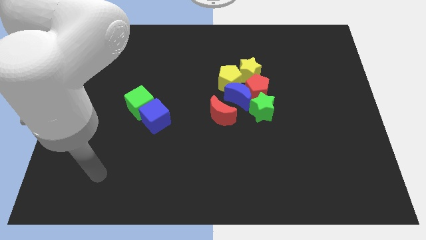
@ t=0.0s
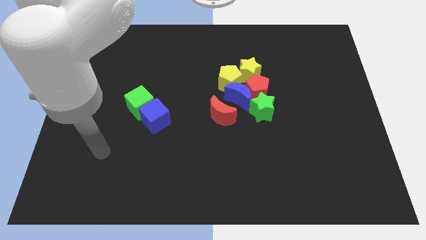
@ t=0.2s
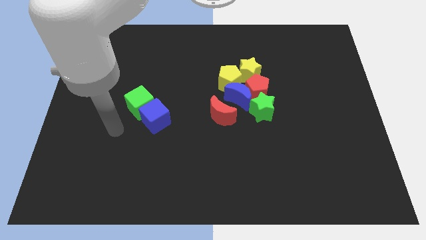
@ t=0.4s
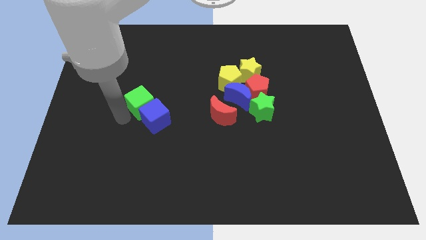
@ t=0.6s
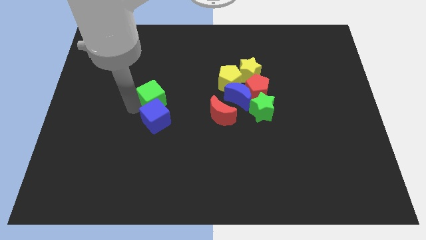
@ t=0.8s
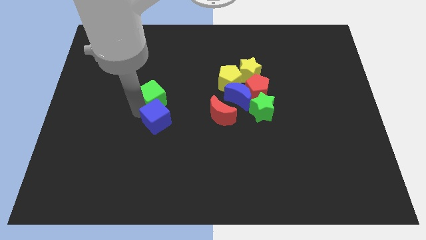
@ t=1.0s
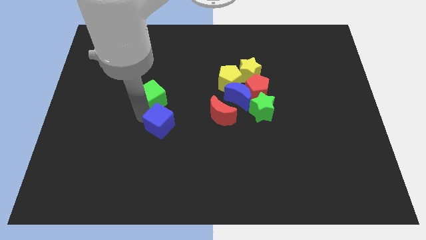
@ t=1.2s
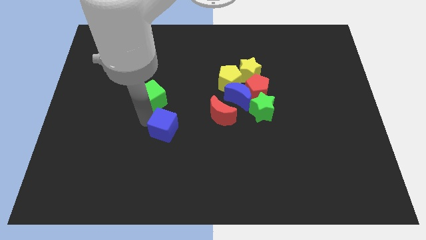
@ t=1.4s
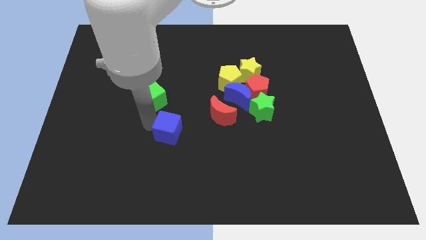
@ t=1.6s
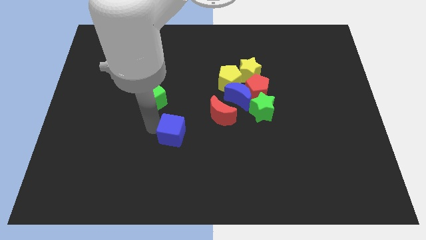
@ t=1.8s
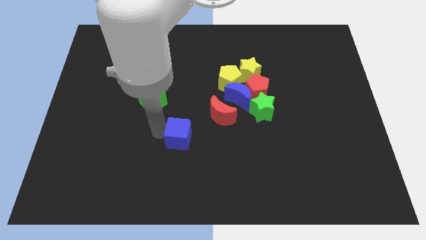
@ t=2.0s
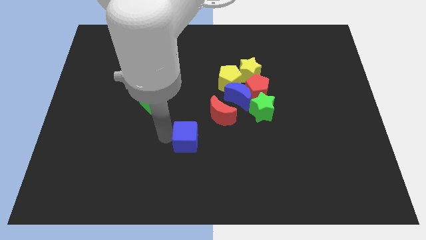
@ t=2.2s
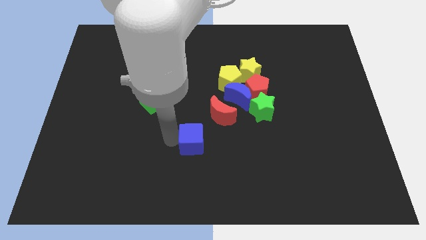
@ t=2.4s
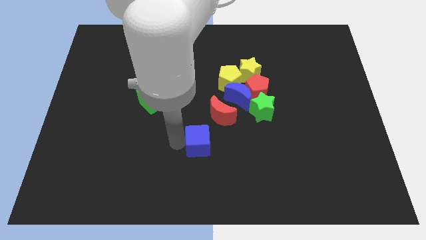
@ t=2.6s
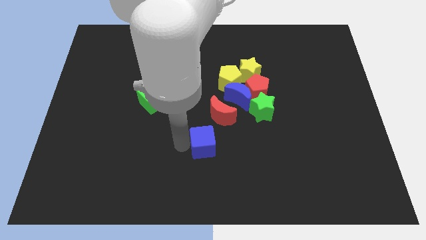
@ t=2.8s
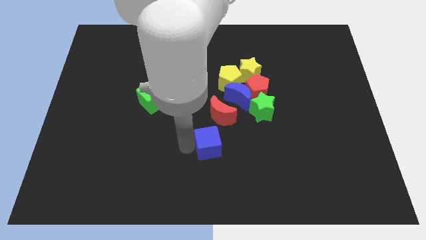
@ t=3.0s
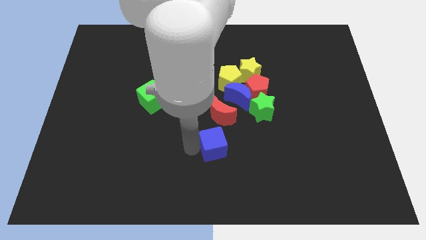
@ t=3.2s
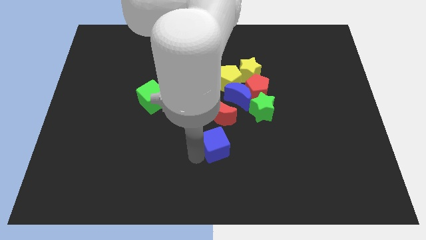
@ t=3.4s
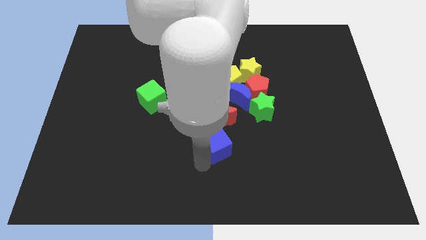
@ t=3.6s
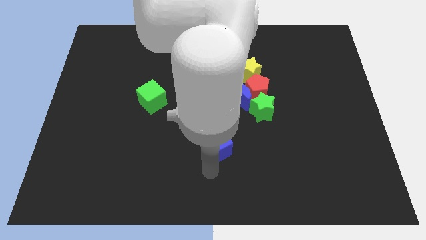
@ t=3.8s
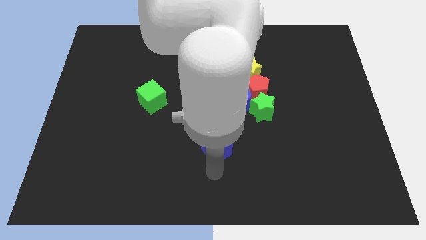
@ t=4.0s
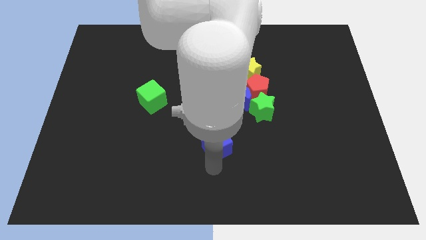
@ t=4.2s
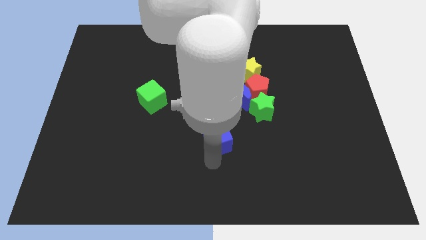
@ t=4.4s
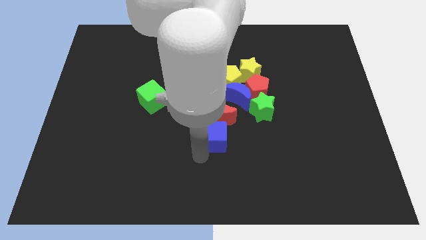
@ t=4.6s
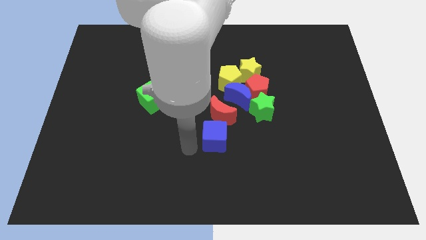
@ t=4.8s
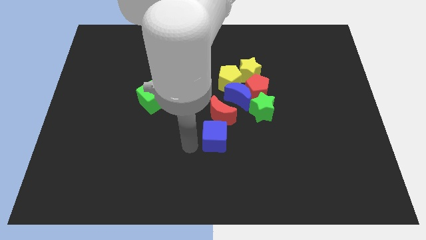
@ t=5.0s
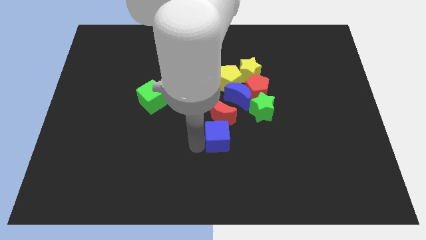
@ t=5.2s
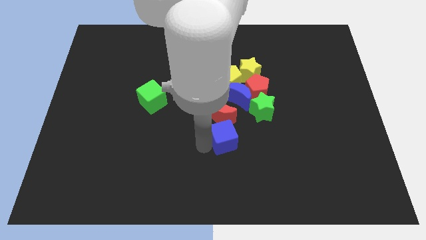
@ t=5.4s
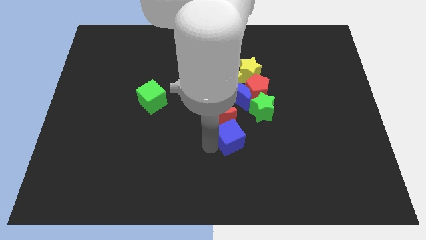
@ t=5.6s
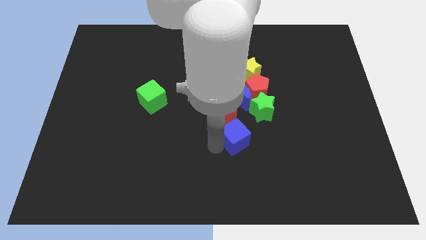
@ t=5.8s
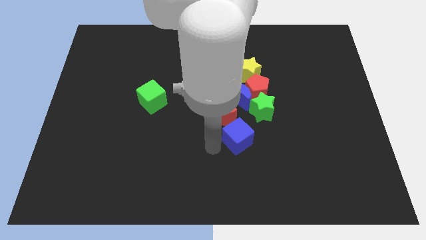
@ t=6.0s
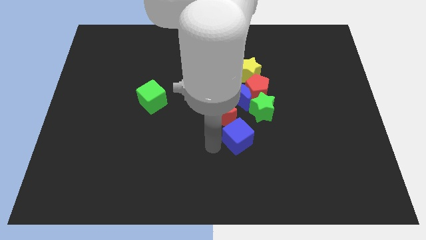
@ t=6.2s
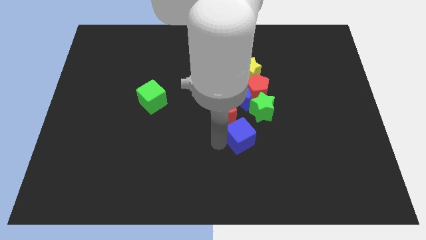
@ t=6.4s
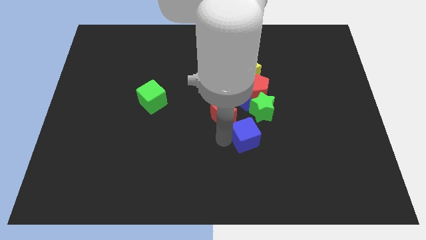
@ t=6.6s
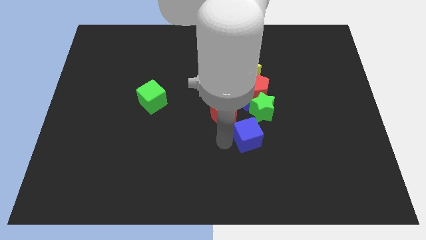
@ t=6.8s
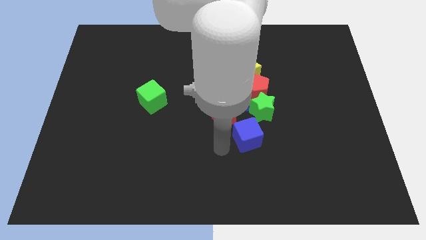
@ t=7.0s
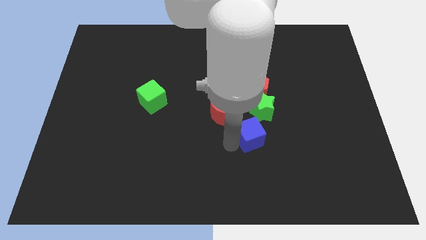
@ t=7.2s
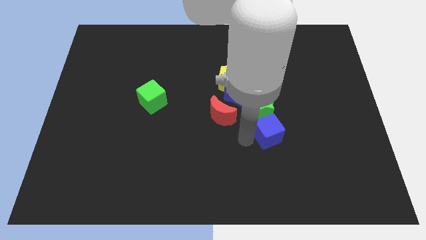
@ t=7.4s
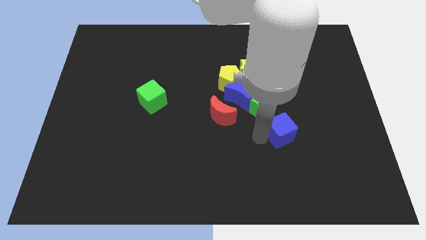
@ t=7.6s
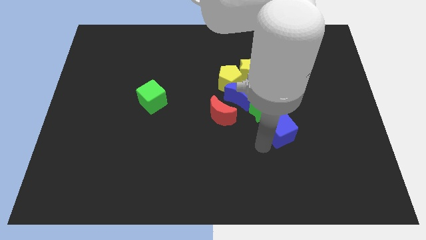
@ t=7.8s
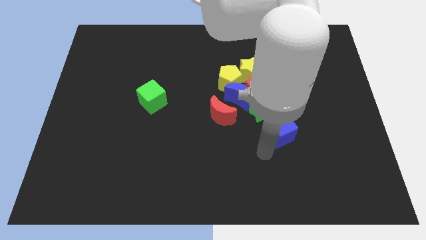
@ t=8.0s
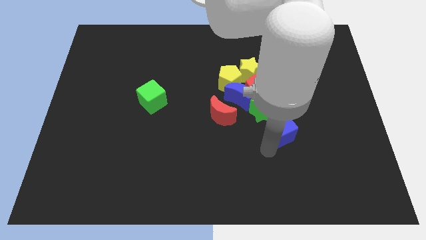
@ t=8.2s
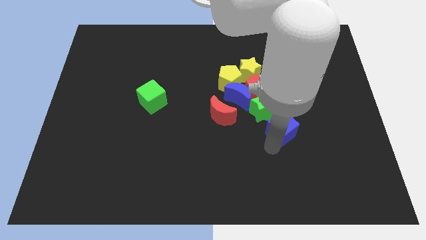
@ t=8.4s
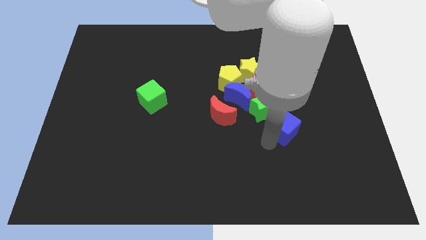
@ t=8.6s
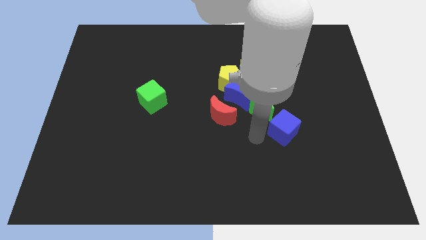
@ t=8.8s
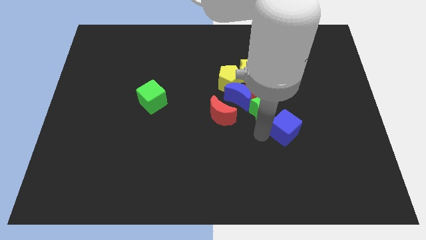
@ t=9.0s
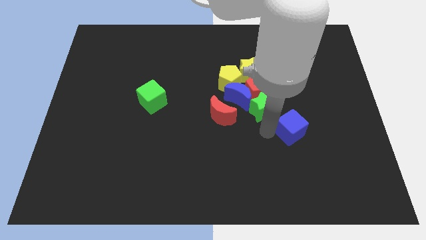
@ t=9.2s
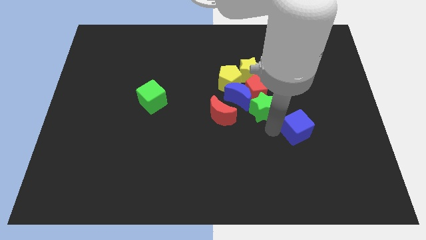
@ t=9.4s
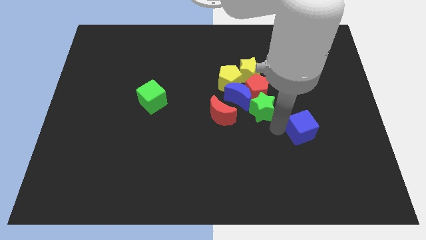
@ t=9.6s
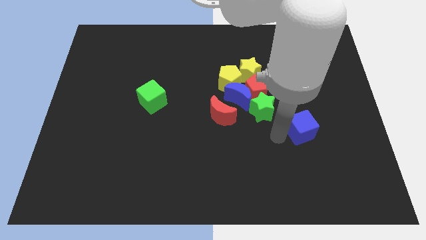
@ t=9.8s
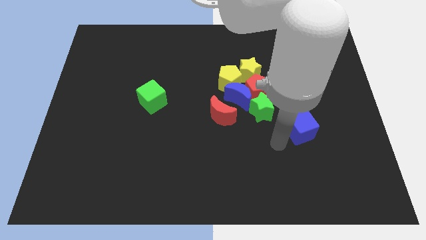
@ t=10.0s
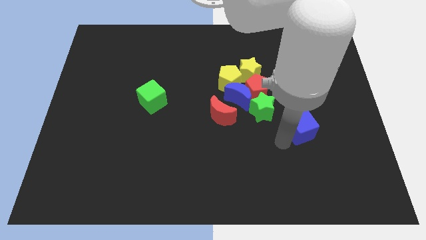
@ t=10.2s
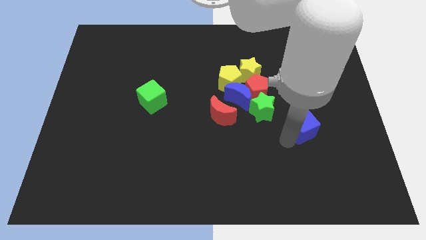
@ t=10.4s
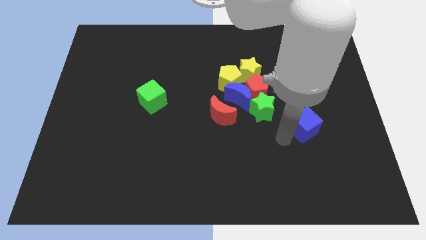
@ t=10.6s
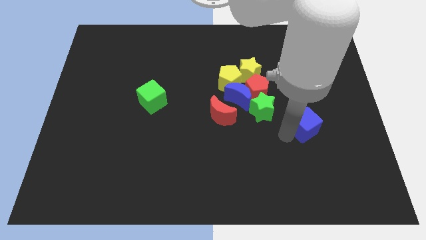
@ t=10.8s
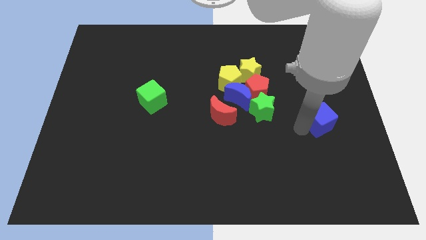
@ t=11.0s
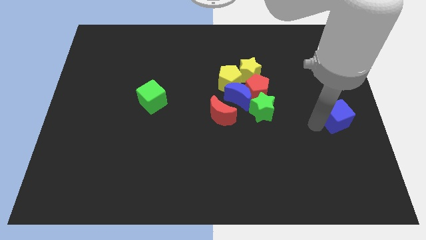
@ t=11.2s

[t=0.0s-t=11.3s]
put the blue cube to the center right
